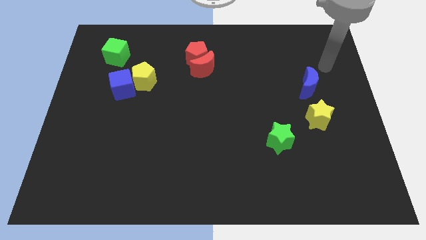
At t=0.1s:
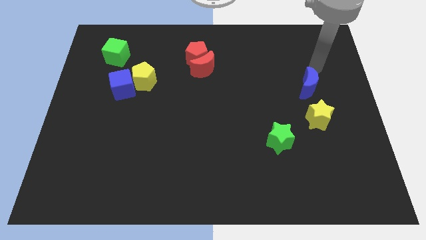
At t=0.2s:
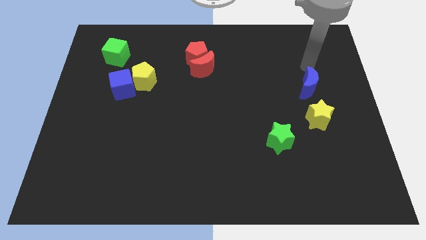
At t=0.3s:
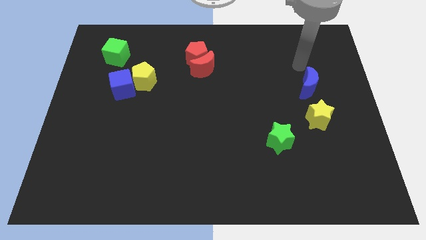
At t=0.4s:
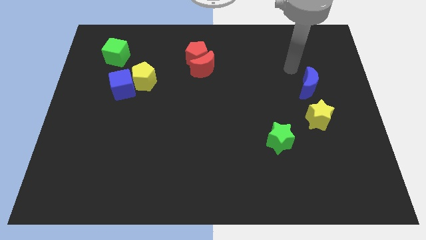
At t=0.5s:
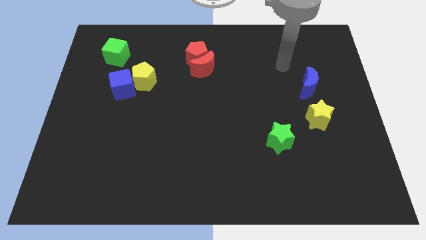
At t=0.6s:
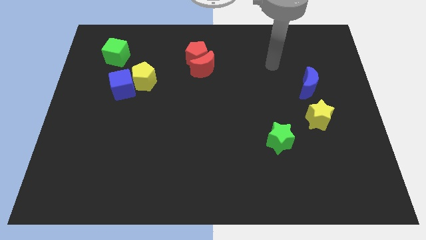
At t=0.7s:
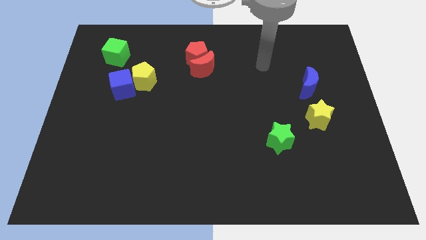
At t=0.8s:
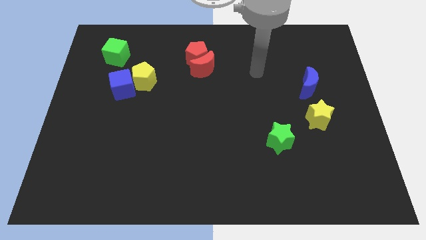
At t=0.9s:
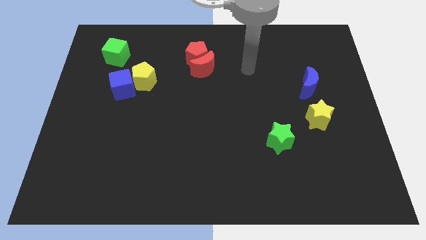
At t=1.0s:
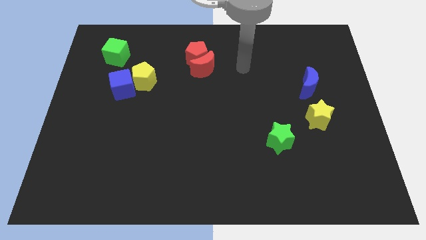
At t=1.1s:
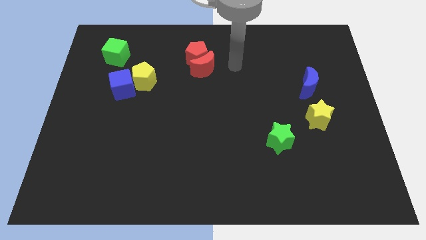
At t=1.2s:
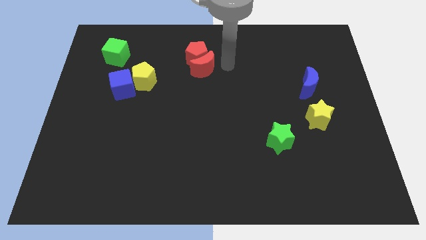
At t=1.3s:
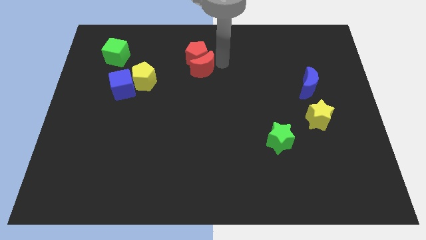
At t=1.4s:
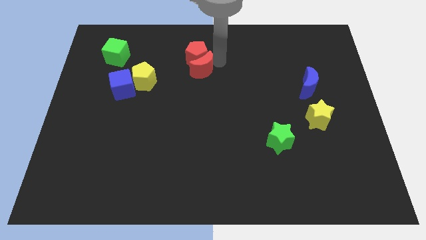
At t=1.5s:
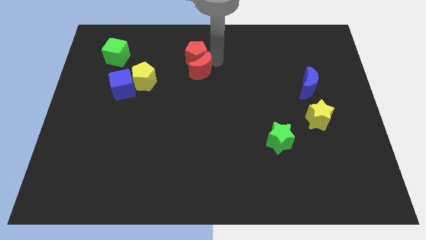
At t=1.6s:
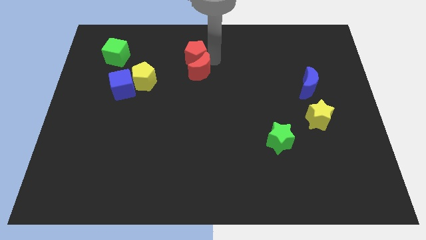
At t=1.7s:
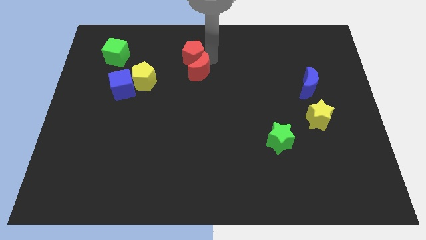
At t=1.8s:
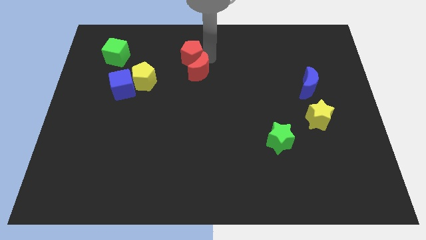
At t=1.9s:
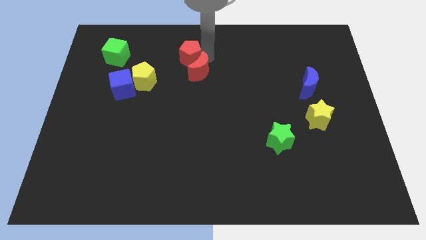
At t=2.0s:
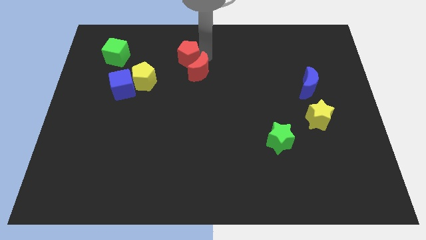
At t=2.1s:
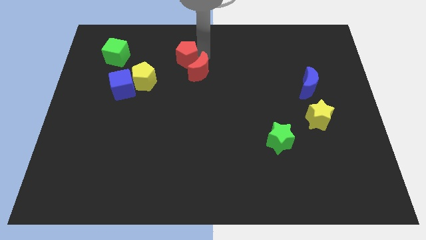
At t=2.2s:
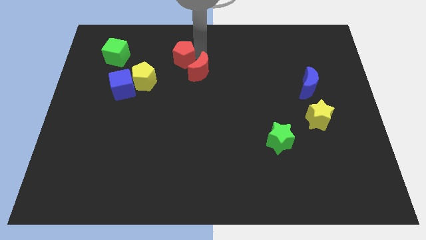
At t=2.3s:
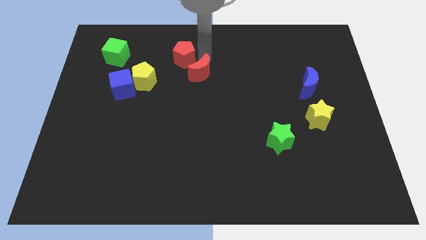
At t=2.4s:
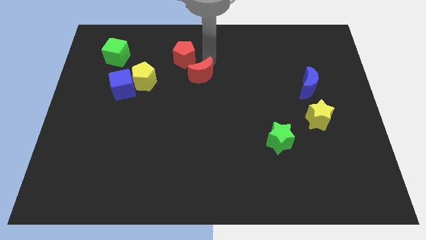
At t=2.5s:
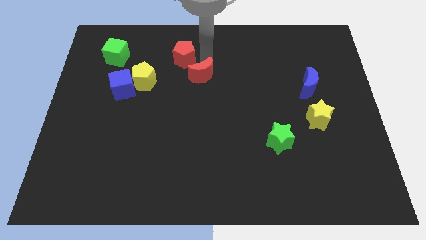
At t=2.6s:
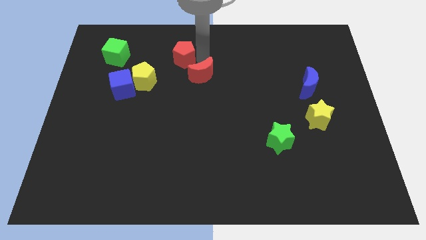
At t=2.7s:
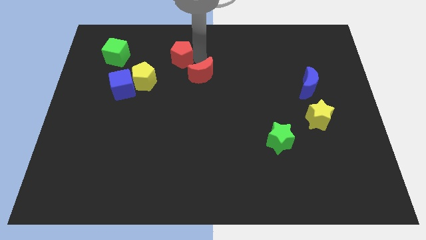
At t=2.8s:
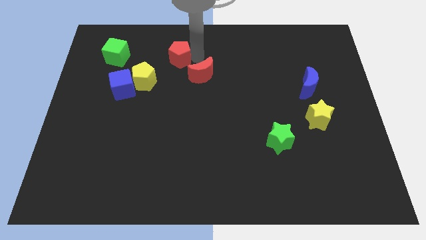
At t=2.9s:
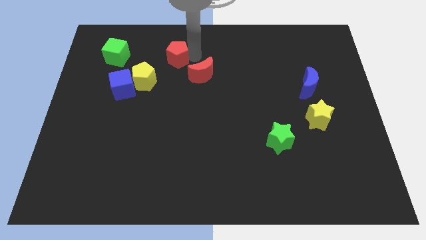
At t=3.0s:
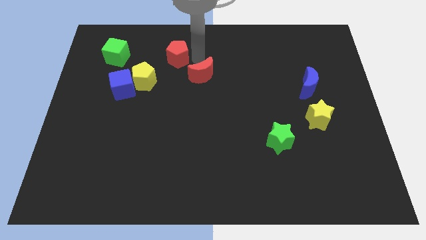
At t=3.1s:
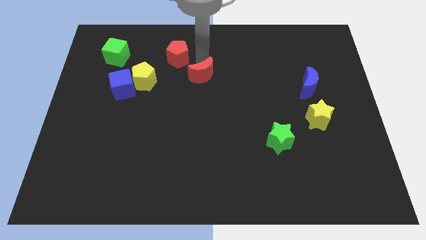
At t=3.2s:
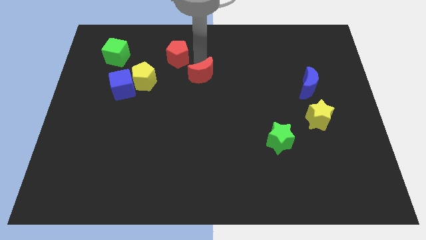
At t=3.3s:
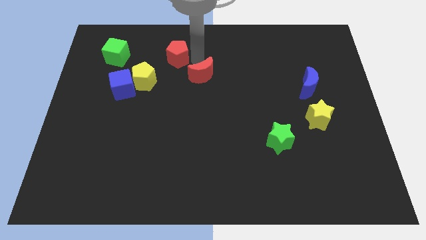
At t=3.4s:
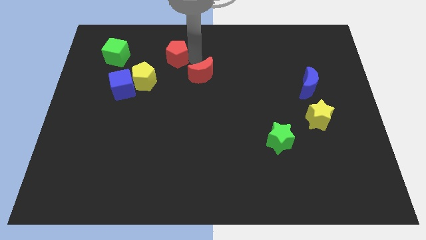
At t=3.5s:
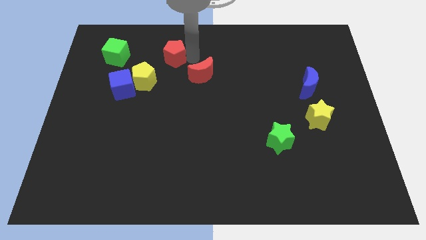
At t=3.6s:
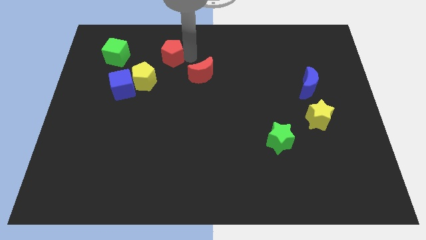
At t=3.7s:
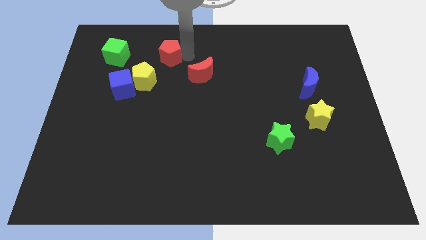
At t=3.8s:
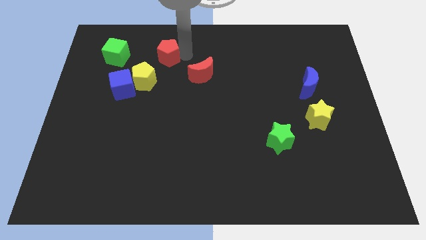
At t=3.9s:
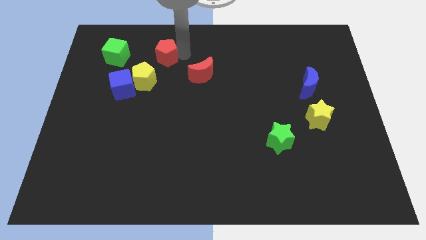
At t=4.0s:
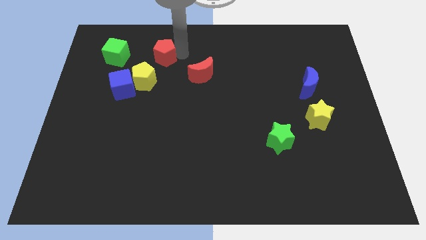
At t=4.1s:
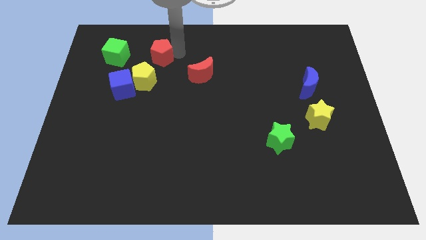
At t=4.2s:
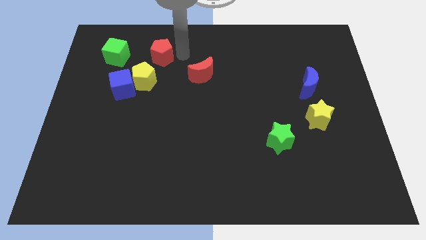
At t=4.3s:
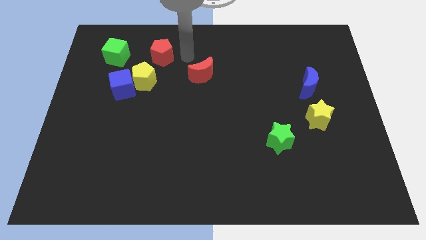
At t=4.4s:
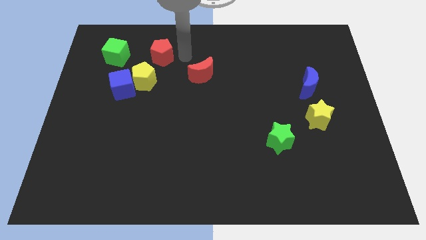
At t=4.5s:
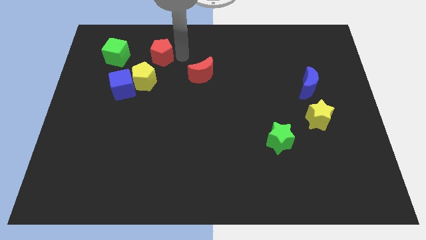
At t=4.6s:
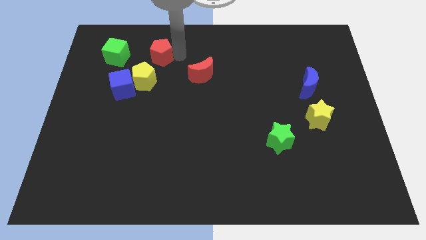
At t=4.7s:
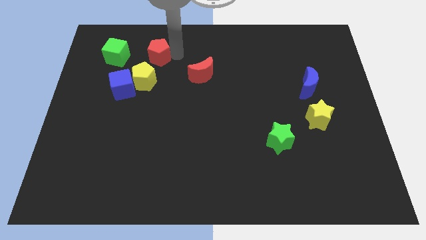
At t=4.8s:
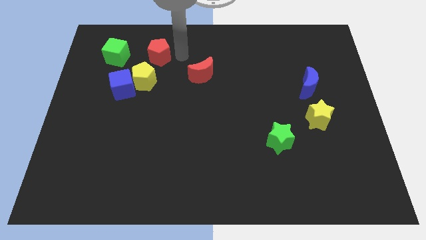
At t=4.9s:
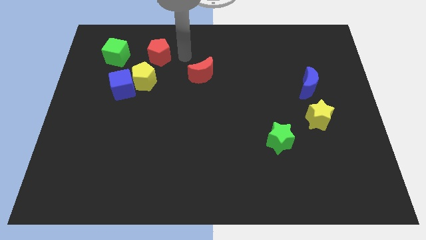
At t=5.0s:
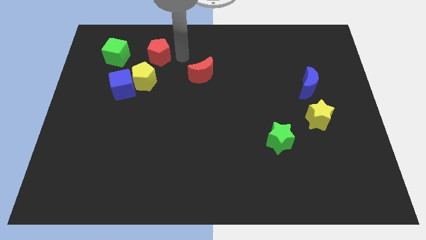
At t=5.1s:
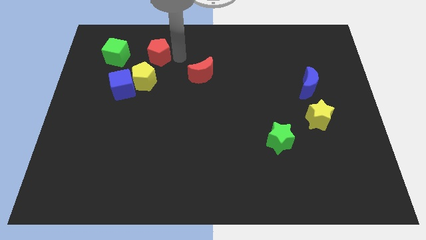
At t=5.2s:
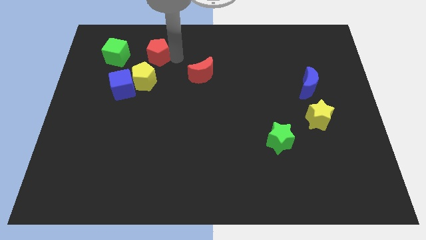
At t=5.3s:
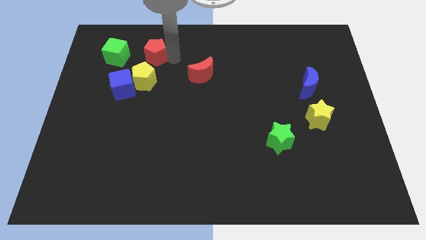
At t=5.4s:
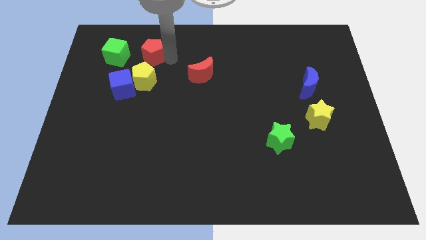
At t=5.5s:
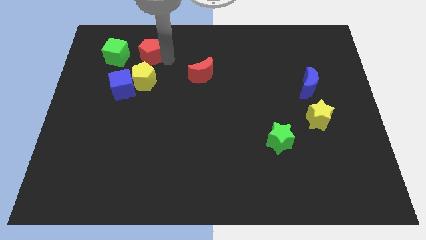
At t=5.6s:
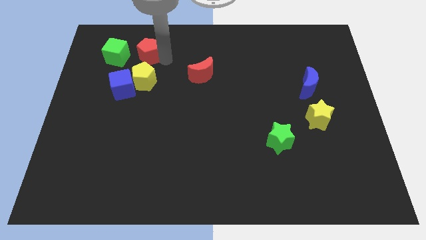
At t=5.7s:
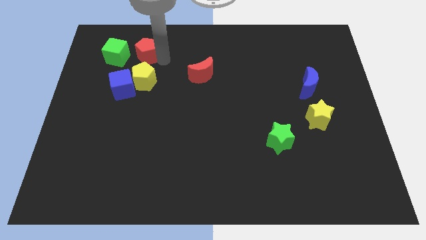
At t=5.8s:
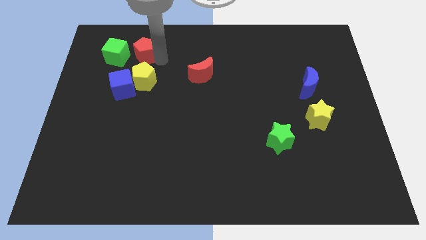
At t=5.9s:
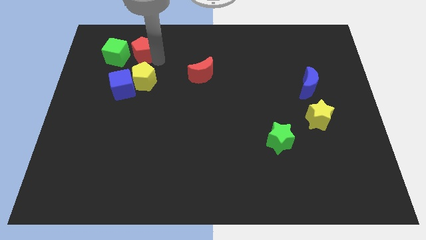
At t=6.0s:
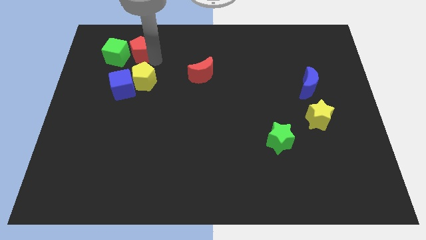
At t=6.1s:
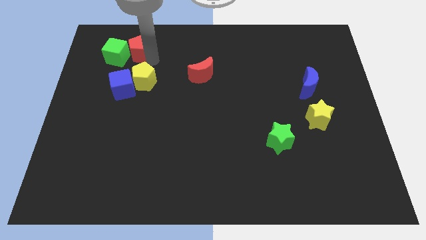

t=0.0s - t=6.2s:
slide the red pentagon next to the green cube

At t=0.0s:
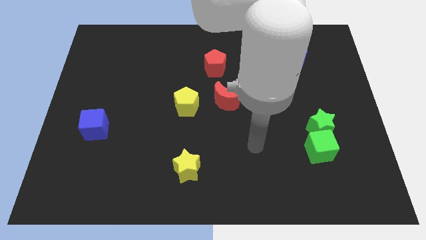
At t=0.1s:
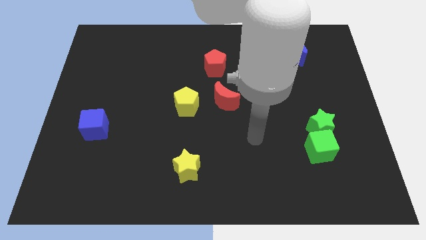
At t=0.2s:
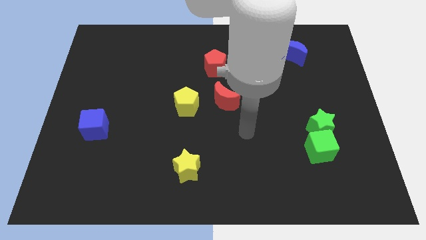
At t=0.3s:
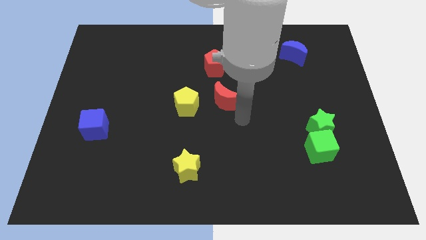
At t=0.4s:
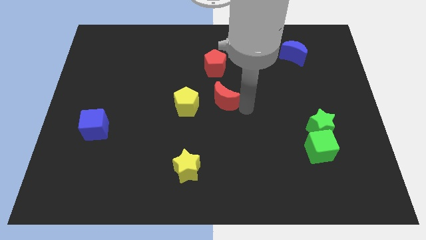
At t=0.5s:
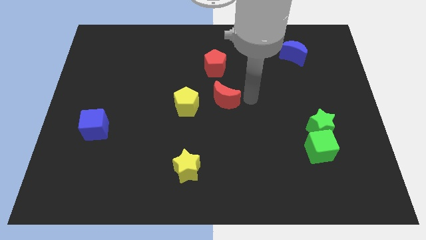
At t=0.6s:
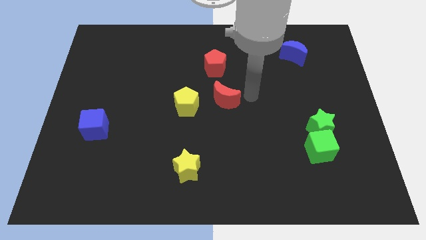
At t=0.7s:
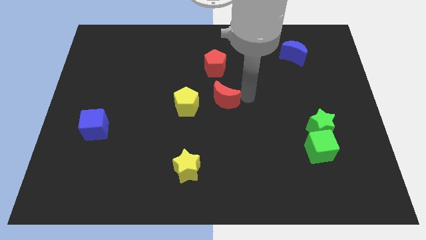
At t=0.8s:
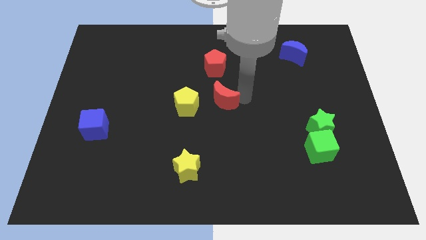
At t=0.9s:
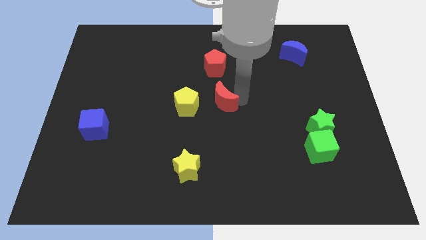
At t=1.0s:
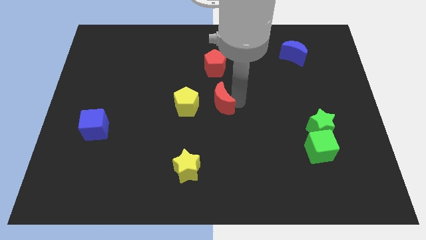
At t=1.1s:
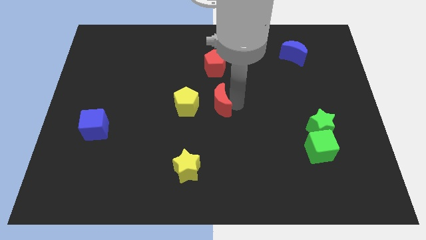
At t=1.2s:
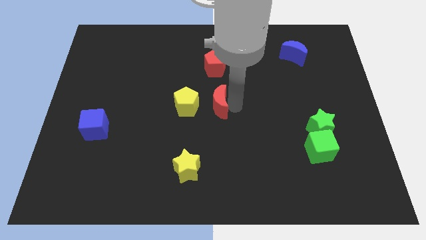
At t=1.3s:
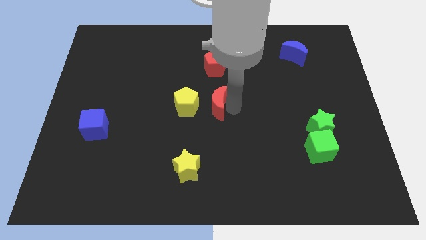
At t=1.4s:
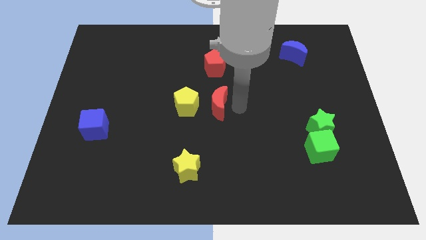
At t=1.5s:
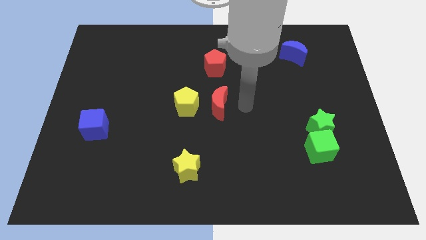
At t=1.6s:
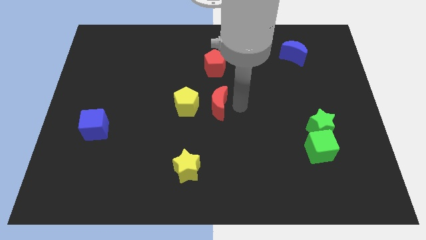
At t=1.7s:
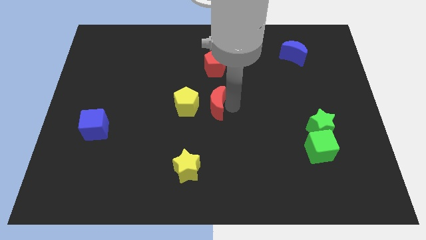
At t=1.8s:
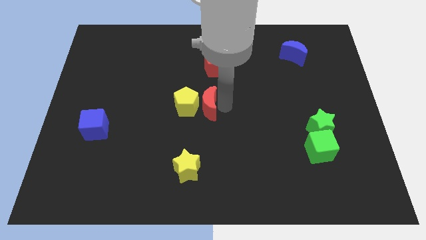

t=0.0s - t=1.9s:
move the red moon close to the yellow pentagon
